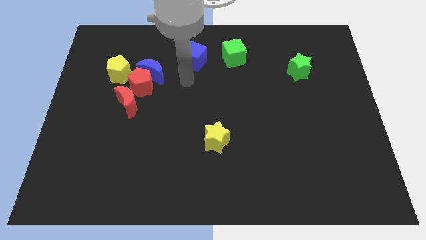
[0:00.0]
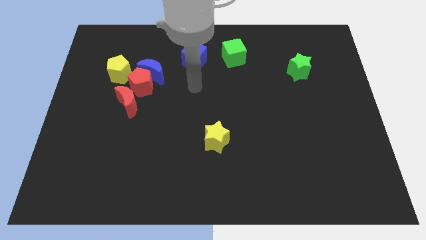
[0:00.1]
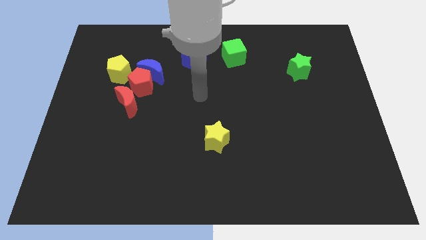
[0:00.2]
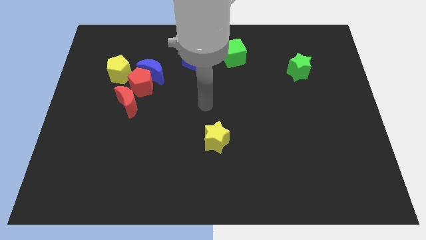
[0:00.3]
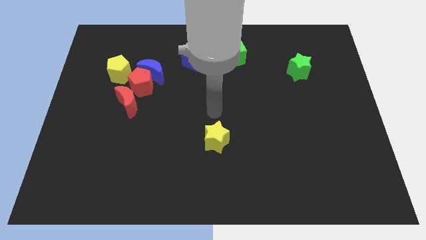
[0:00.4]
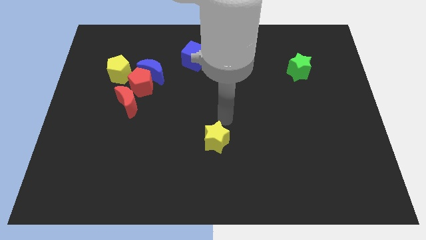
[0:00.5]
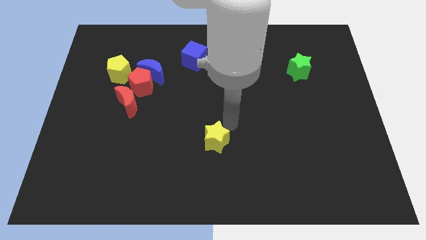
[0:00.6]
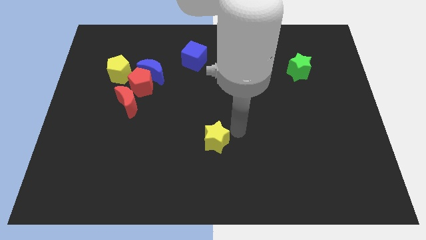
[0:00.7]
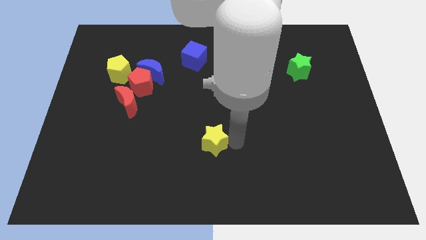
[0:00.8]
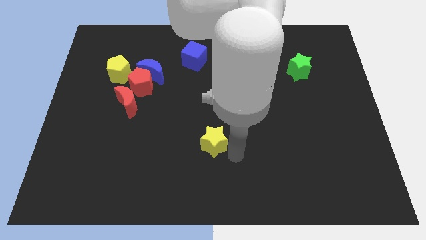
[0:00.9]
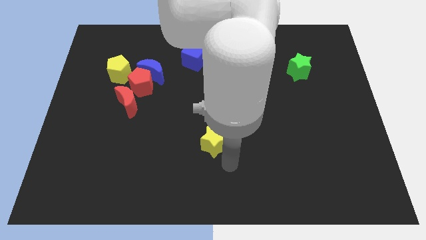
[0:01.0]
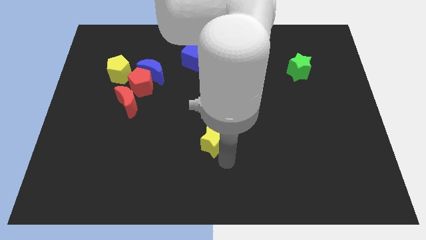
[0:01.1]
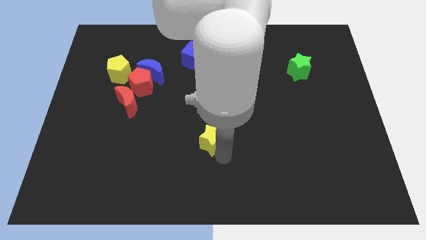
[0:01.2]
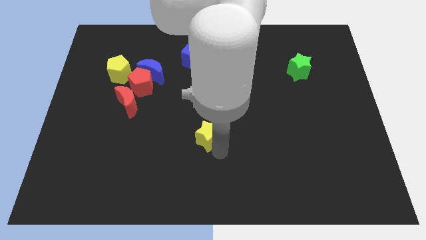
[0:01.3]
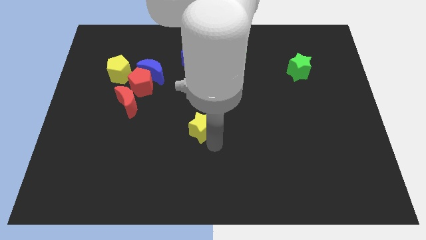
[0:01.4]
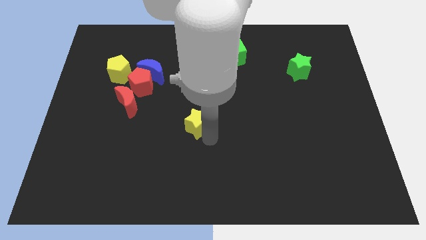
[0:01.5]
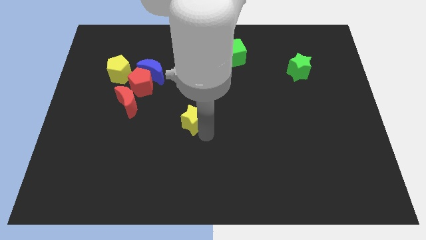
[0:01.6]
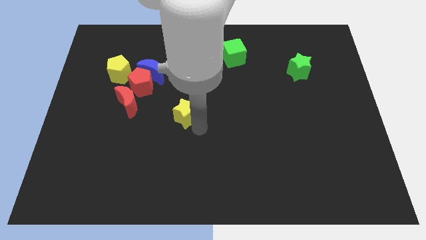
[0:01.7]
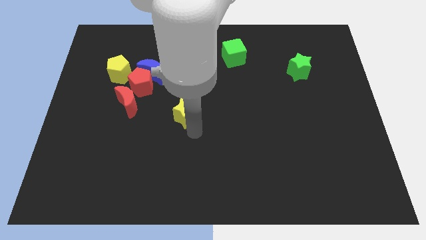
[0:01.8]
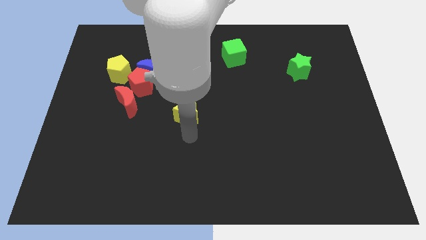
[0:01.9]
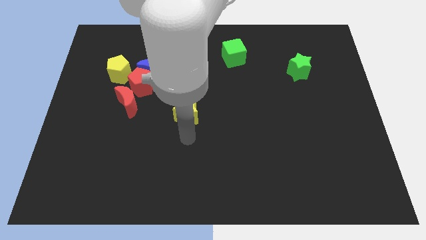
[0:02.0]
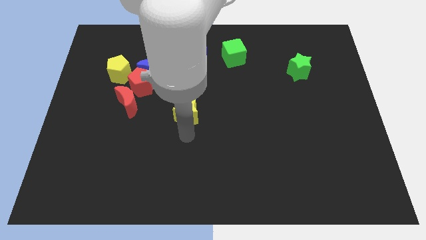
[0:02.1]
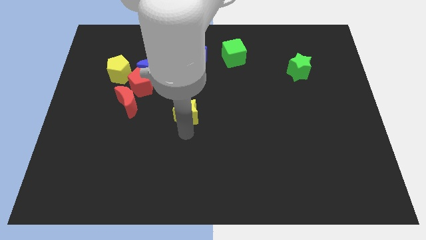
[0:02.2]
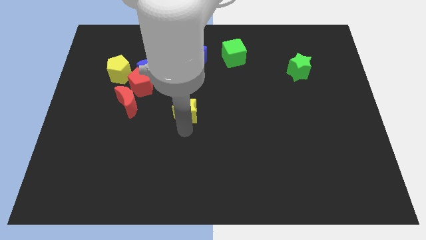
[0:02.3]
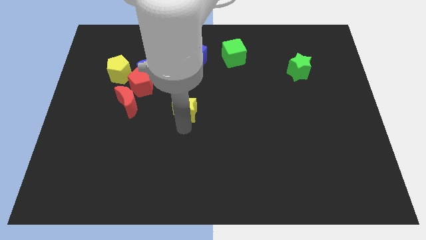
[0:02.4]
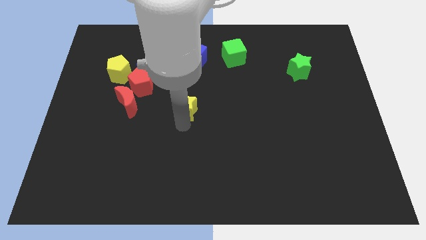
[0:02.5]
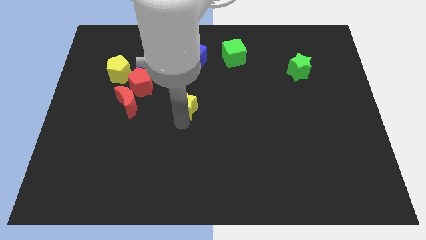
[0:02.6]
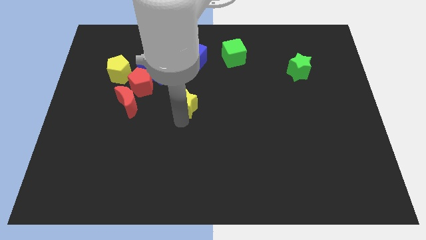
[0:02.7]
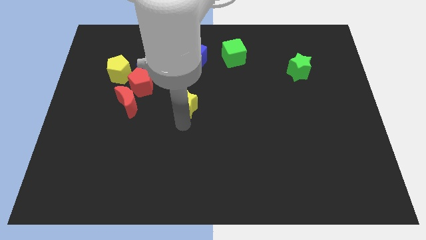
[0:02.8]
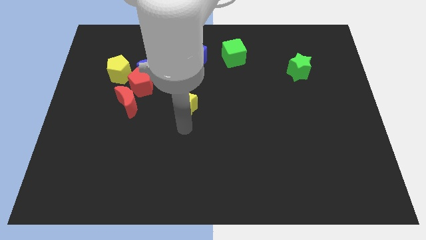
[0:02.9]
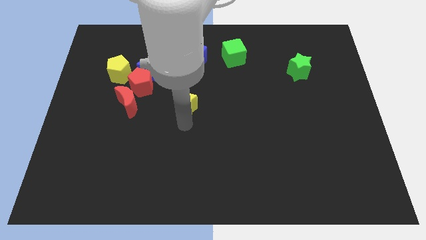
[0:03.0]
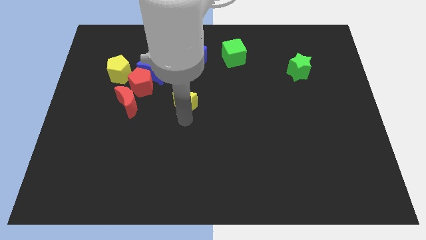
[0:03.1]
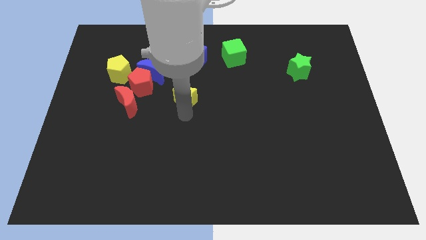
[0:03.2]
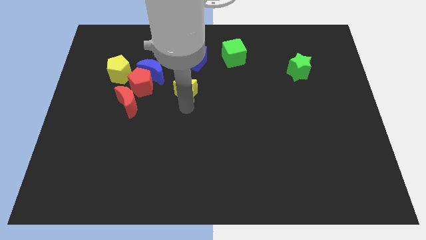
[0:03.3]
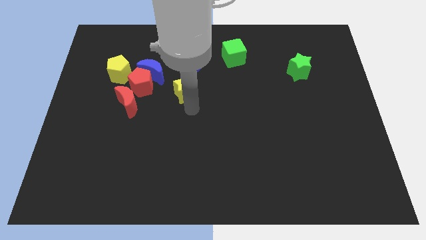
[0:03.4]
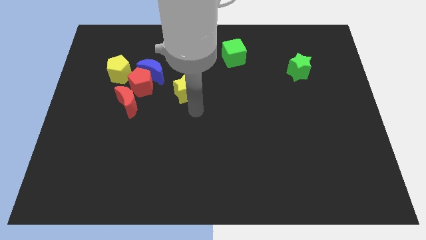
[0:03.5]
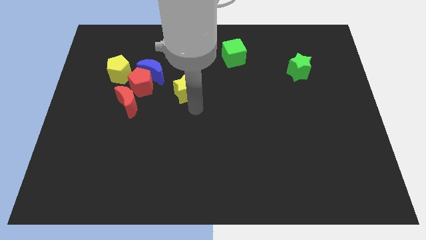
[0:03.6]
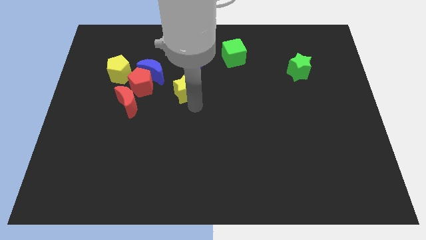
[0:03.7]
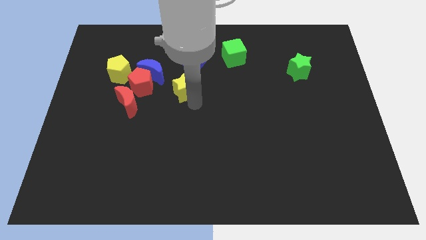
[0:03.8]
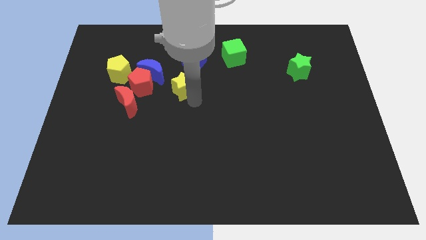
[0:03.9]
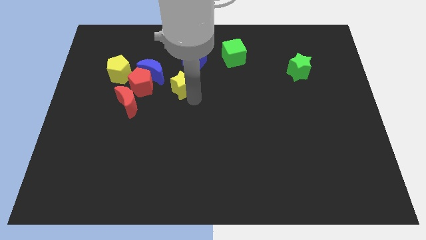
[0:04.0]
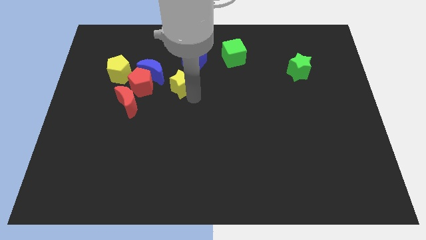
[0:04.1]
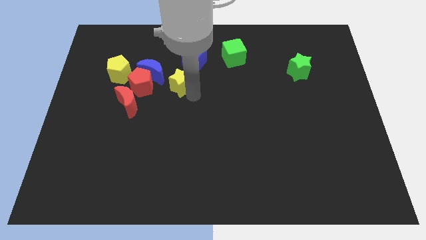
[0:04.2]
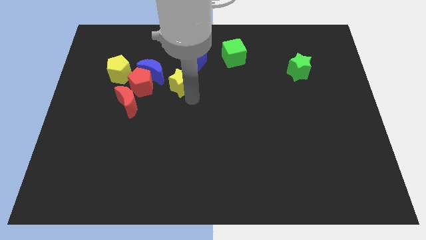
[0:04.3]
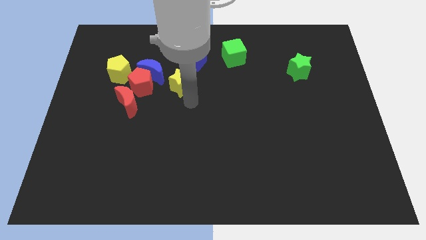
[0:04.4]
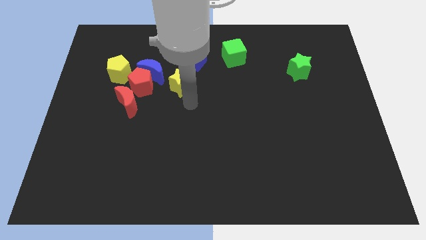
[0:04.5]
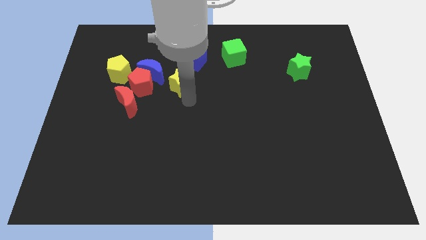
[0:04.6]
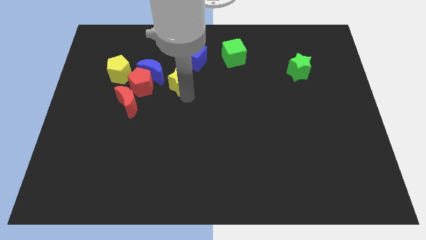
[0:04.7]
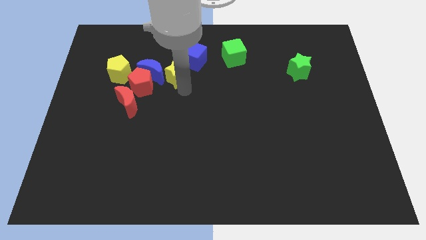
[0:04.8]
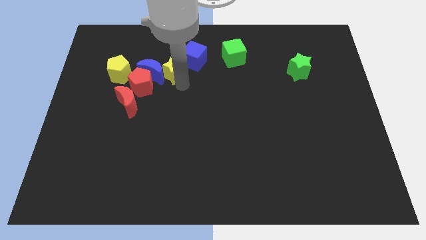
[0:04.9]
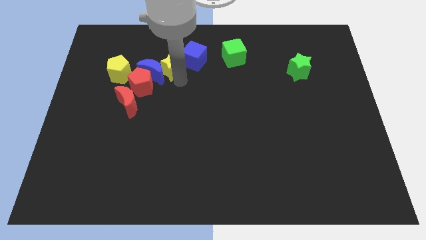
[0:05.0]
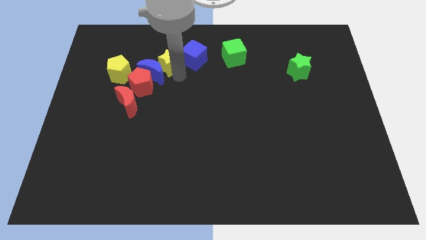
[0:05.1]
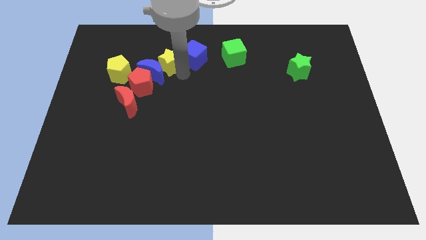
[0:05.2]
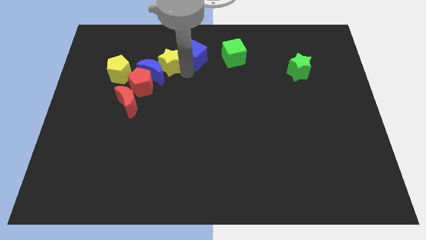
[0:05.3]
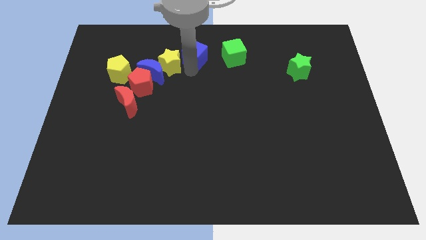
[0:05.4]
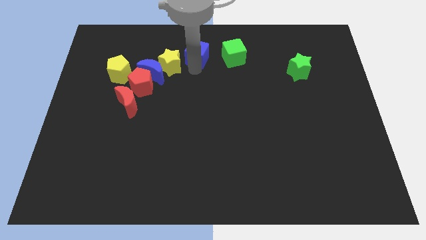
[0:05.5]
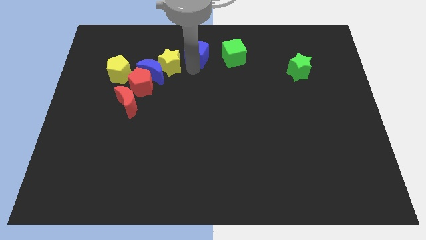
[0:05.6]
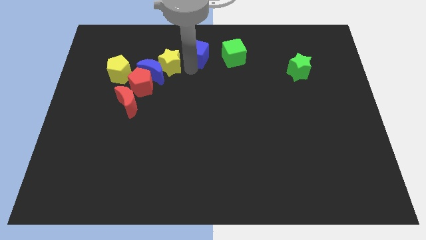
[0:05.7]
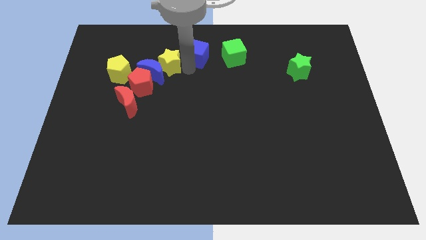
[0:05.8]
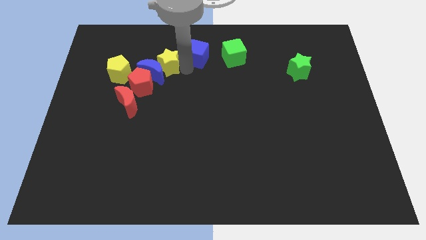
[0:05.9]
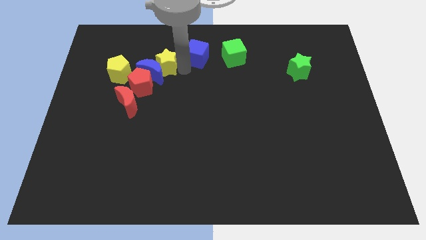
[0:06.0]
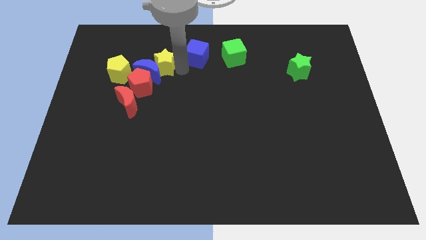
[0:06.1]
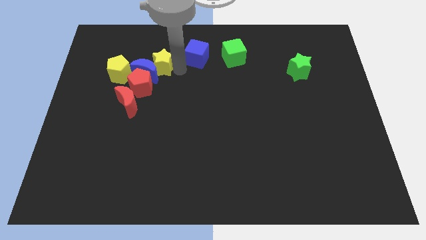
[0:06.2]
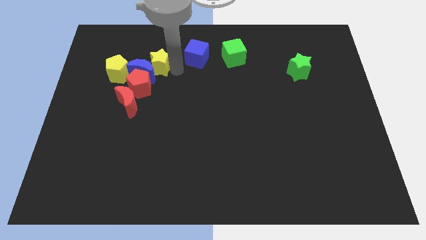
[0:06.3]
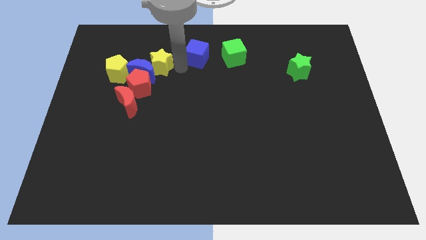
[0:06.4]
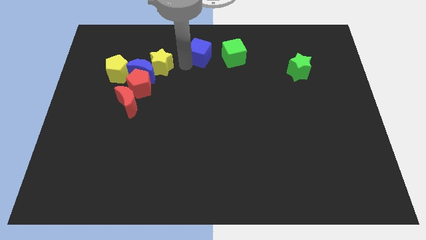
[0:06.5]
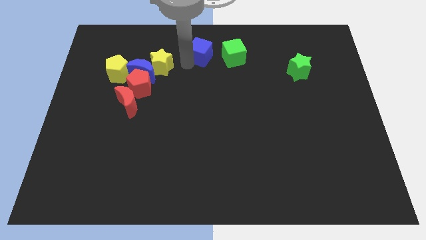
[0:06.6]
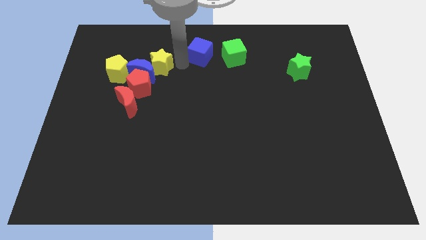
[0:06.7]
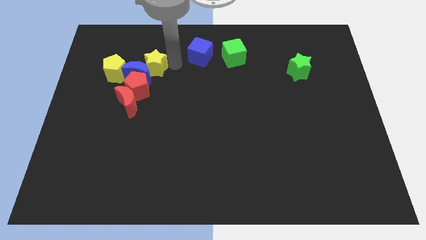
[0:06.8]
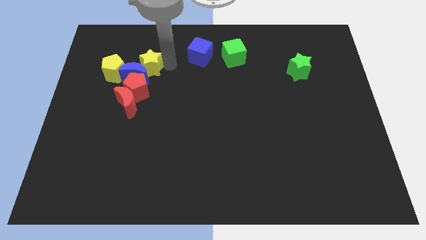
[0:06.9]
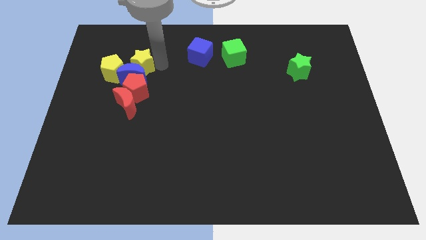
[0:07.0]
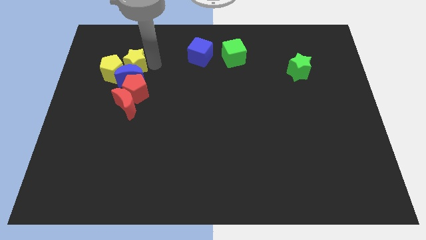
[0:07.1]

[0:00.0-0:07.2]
slide the yellow star towards the yellow pentagon

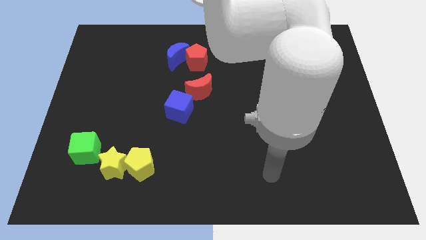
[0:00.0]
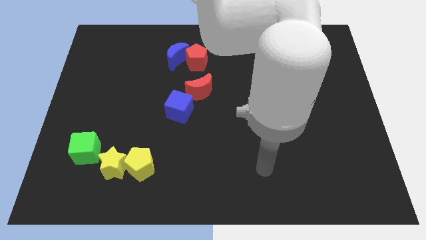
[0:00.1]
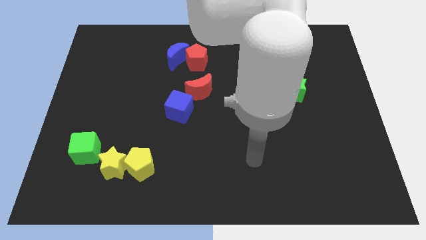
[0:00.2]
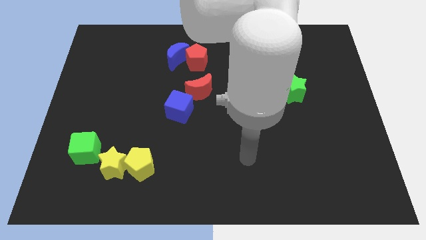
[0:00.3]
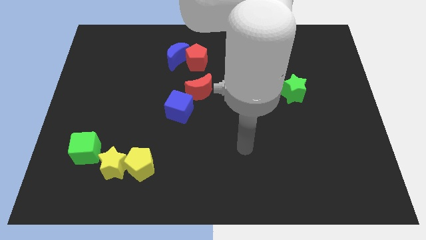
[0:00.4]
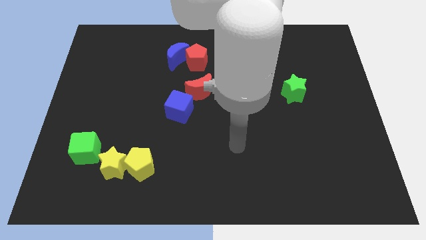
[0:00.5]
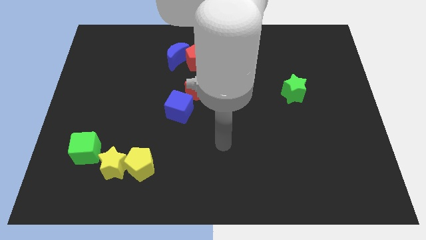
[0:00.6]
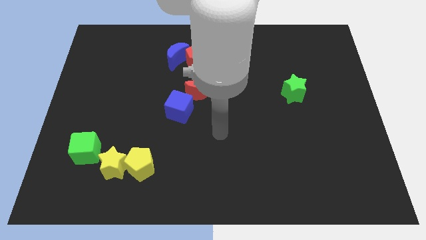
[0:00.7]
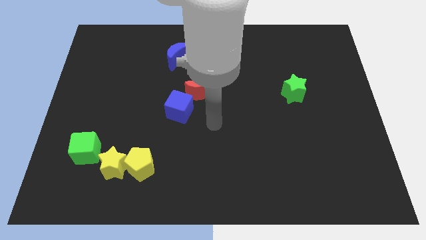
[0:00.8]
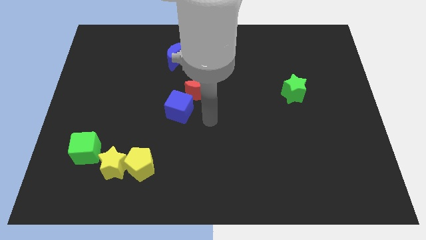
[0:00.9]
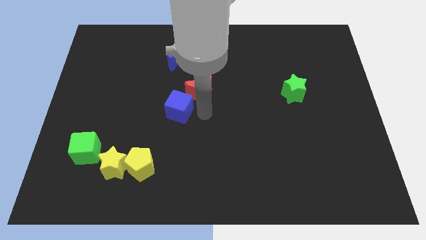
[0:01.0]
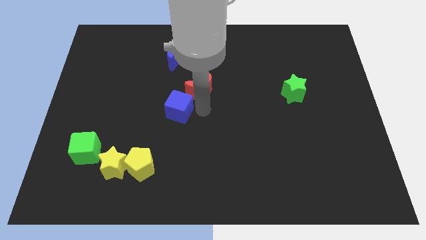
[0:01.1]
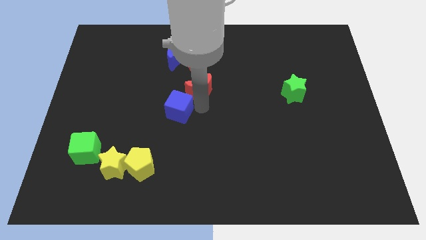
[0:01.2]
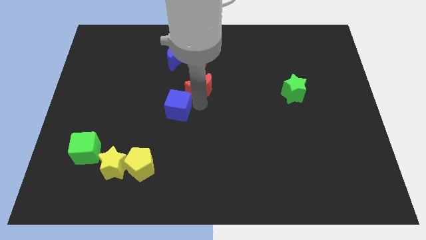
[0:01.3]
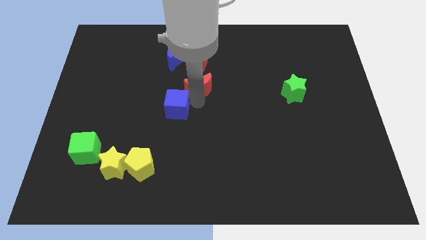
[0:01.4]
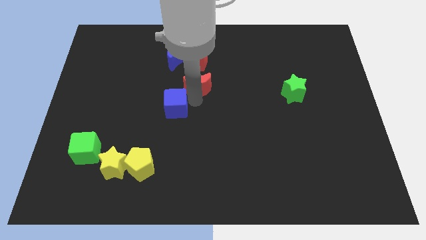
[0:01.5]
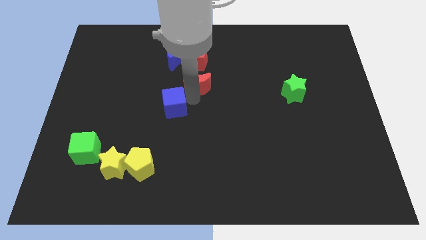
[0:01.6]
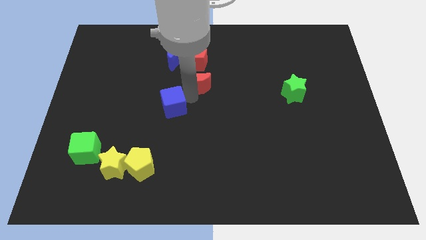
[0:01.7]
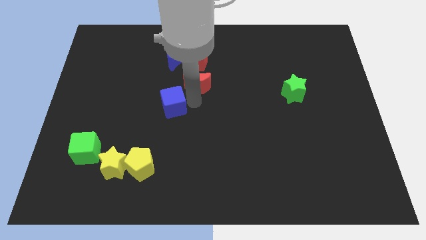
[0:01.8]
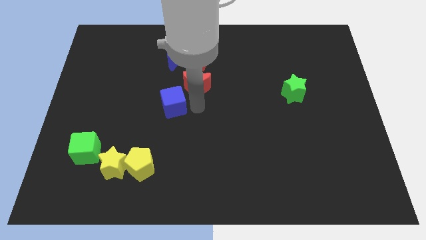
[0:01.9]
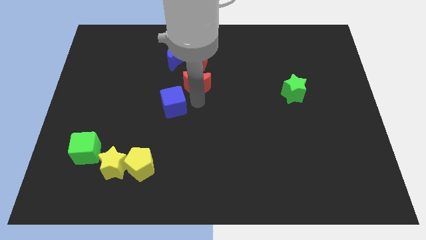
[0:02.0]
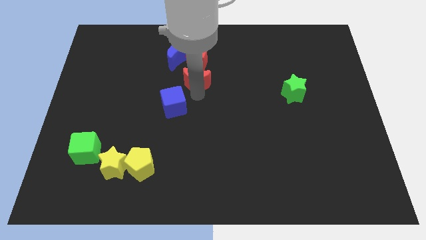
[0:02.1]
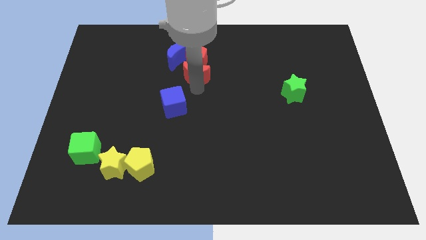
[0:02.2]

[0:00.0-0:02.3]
push the red moon next to the red pentagon
